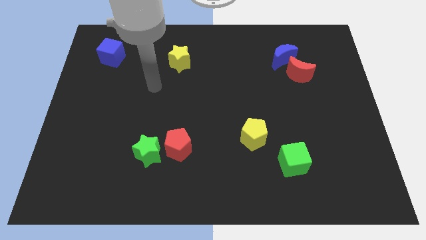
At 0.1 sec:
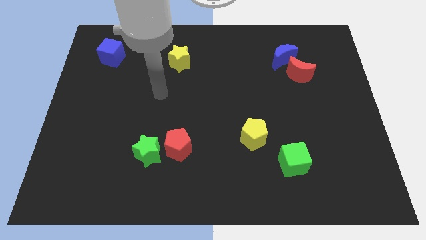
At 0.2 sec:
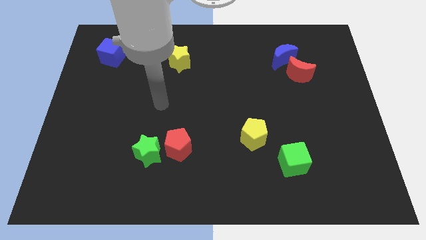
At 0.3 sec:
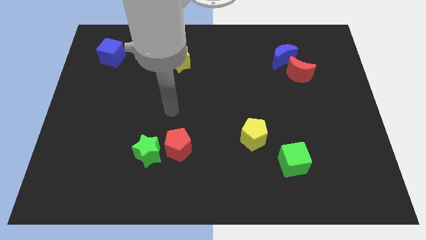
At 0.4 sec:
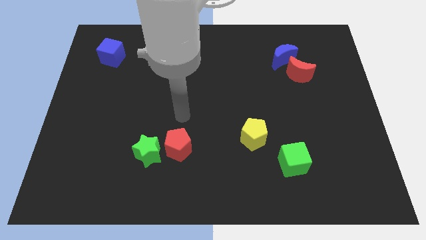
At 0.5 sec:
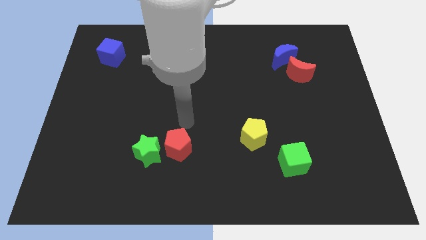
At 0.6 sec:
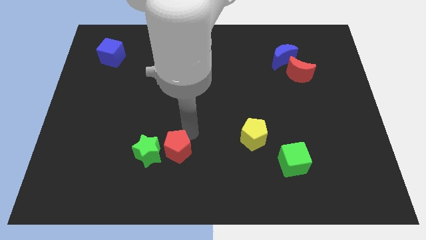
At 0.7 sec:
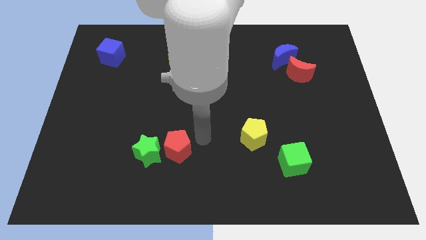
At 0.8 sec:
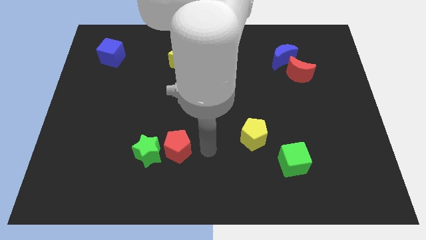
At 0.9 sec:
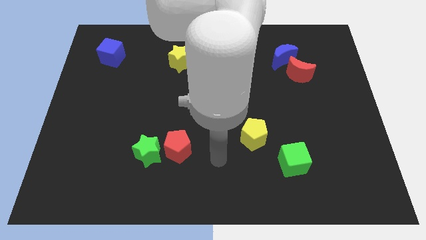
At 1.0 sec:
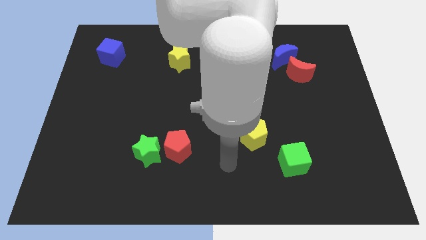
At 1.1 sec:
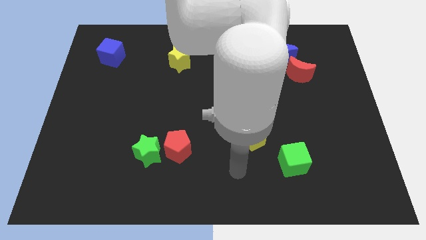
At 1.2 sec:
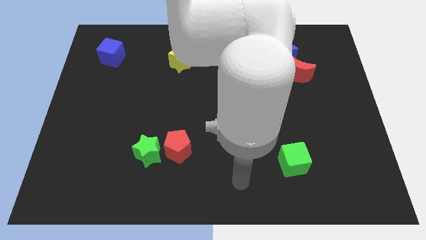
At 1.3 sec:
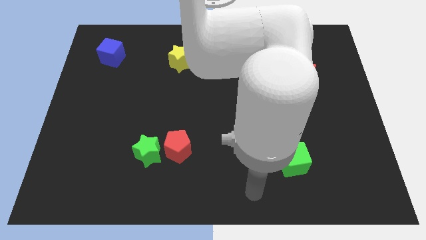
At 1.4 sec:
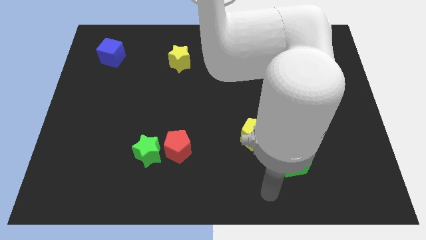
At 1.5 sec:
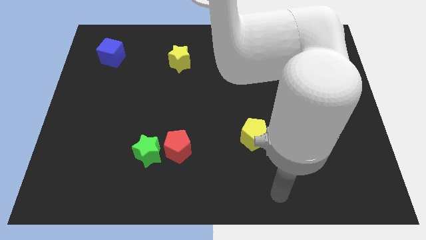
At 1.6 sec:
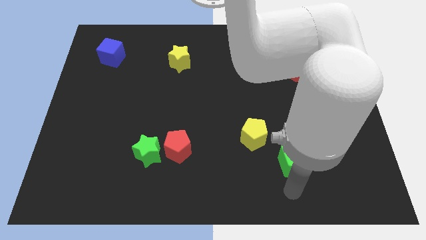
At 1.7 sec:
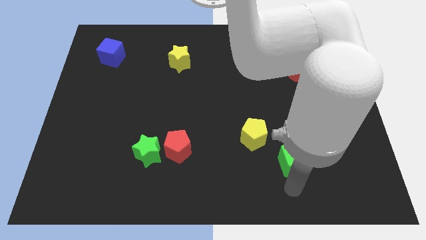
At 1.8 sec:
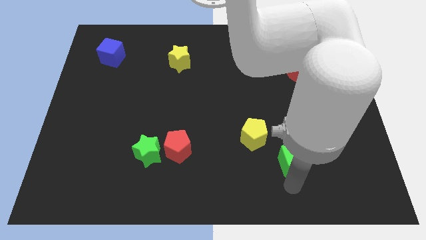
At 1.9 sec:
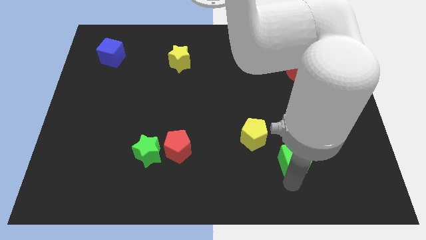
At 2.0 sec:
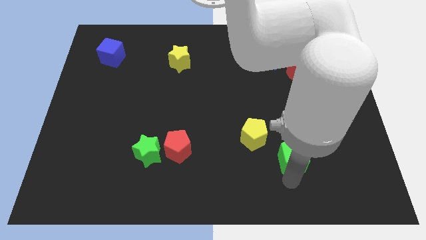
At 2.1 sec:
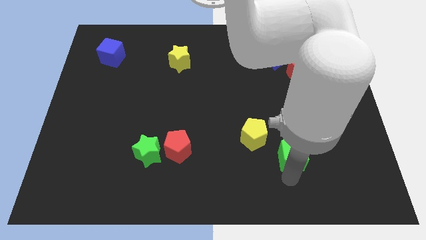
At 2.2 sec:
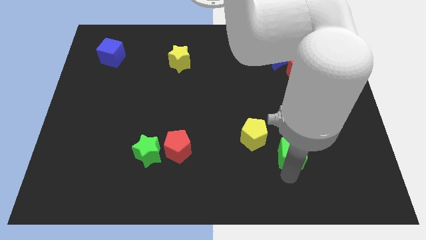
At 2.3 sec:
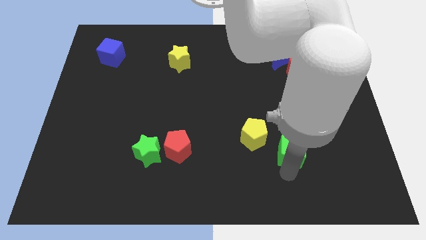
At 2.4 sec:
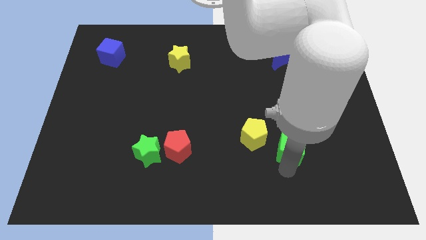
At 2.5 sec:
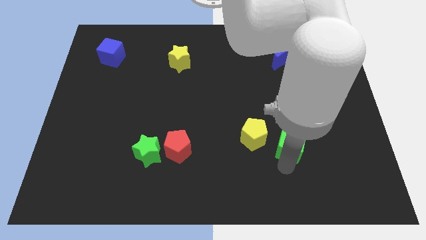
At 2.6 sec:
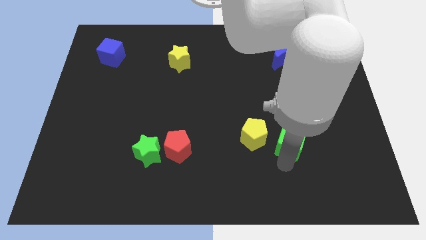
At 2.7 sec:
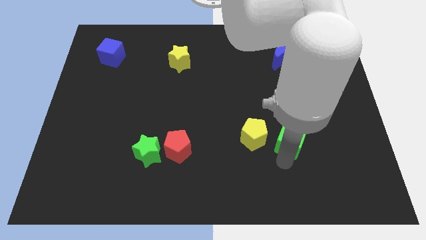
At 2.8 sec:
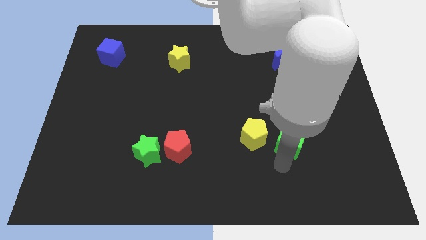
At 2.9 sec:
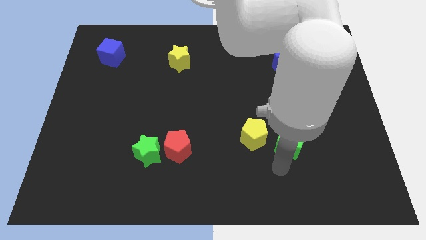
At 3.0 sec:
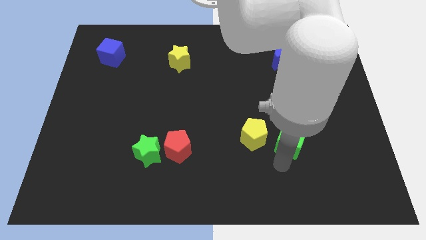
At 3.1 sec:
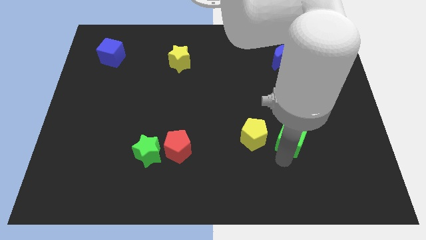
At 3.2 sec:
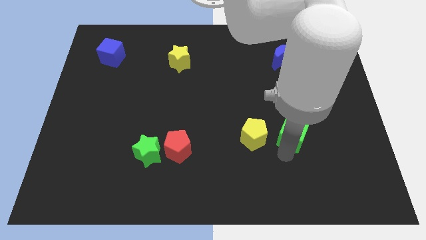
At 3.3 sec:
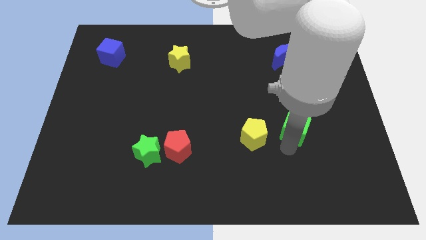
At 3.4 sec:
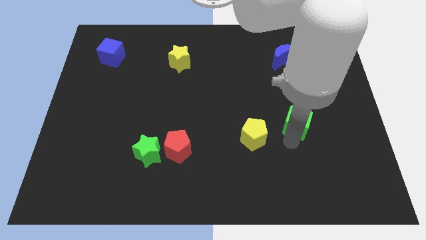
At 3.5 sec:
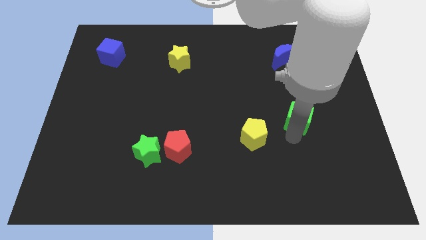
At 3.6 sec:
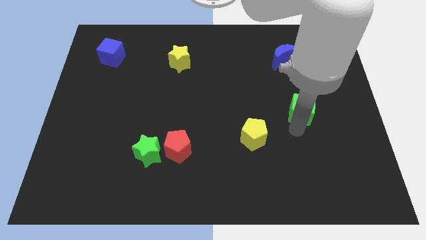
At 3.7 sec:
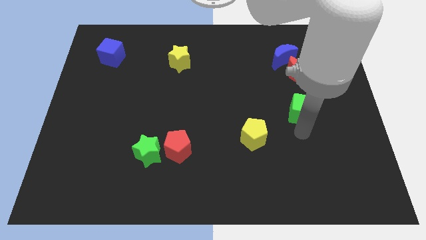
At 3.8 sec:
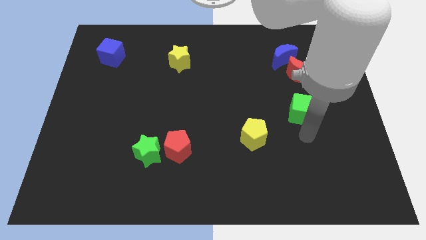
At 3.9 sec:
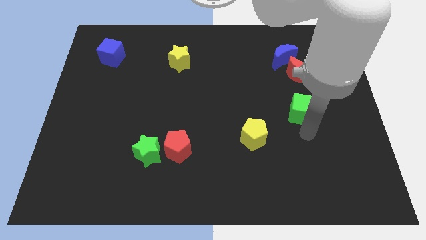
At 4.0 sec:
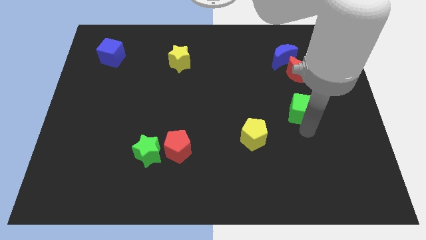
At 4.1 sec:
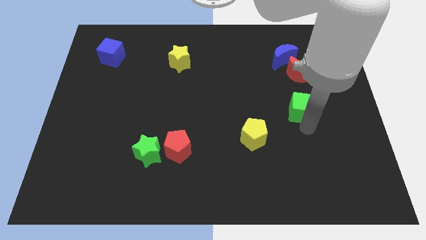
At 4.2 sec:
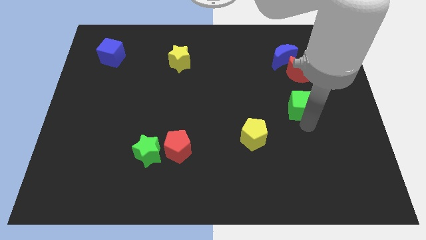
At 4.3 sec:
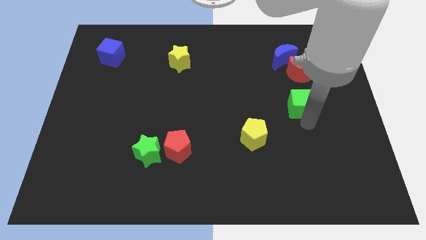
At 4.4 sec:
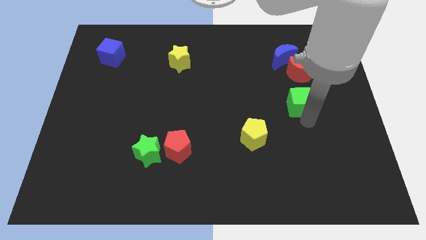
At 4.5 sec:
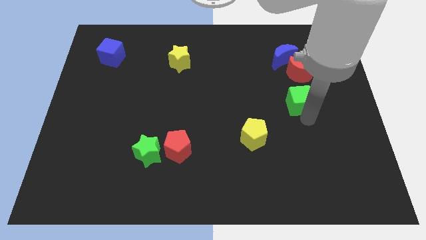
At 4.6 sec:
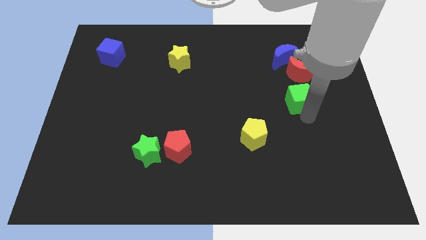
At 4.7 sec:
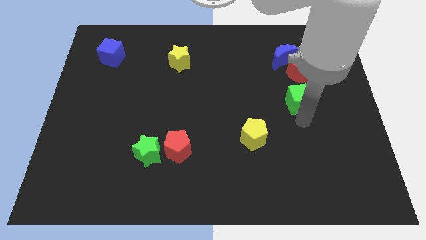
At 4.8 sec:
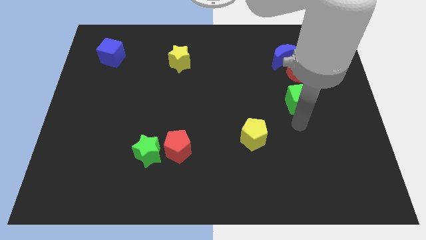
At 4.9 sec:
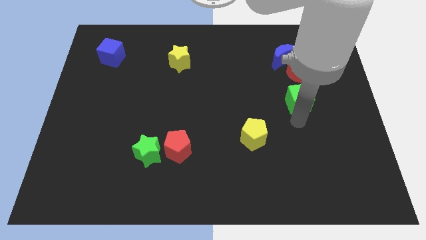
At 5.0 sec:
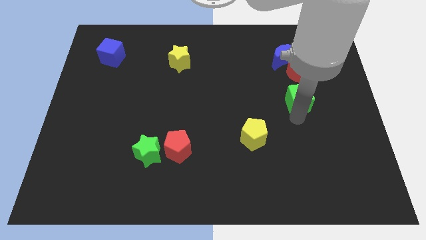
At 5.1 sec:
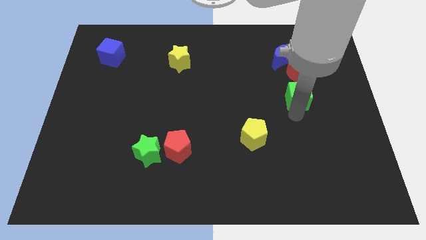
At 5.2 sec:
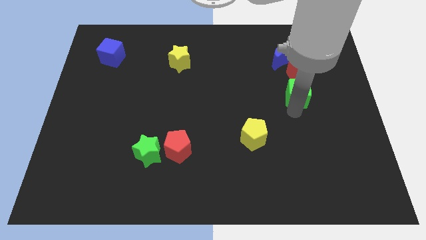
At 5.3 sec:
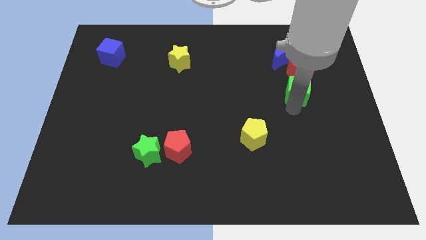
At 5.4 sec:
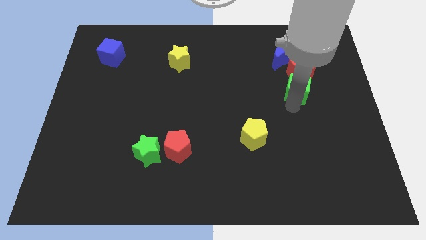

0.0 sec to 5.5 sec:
put the green cube to the red moon

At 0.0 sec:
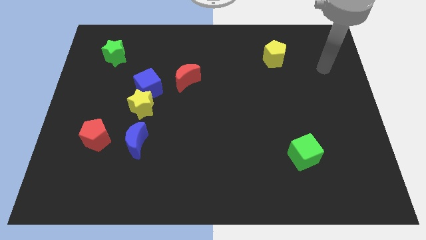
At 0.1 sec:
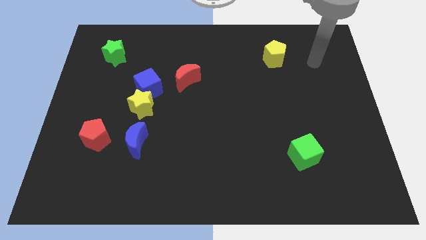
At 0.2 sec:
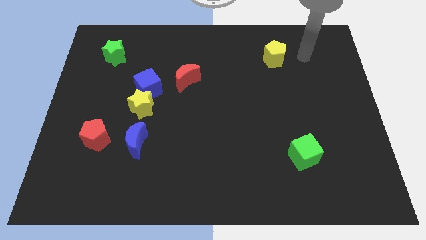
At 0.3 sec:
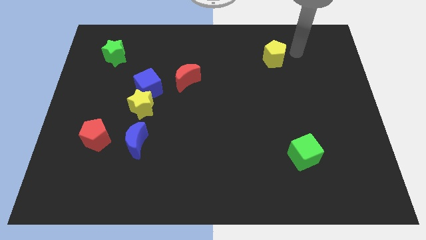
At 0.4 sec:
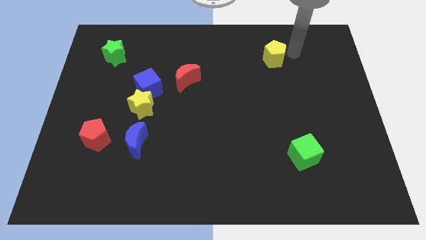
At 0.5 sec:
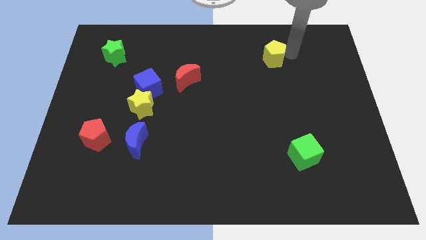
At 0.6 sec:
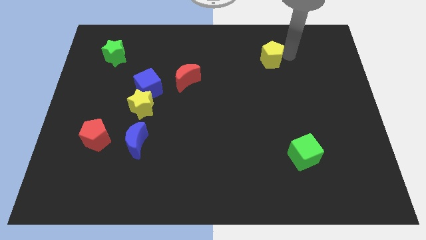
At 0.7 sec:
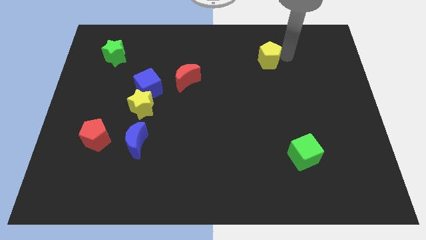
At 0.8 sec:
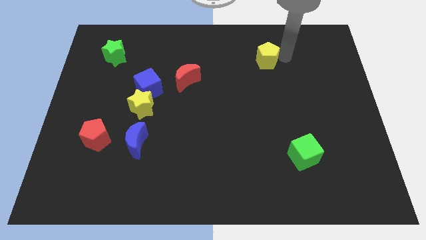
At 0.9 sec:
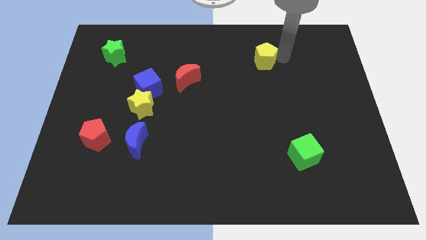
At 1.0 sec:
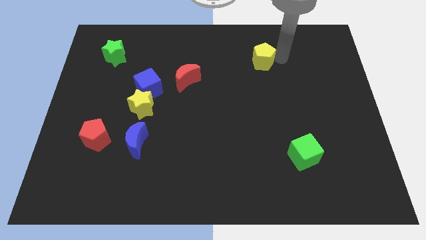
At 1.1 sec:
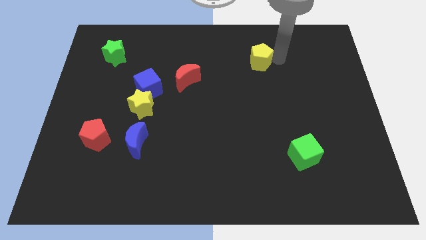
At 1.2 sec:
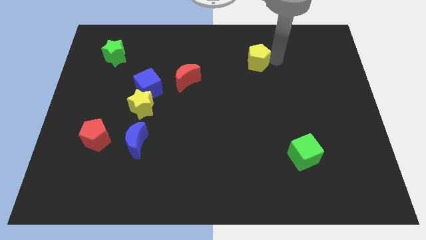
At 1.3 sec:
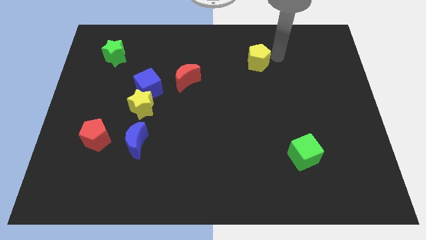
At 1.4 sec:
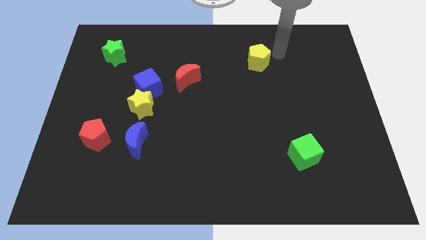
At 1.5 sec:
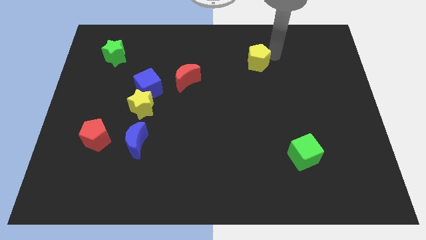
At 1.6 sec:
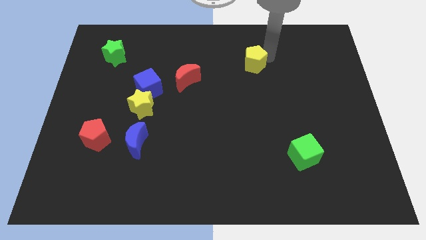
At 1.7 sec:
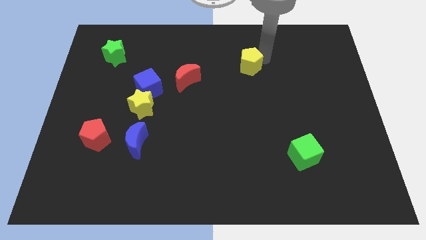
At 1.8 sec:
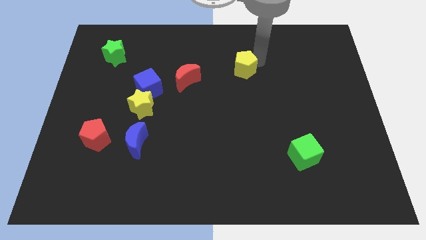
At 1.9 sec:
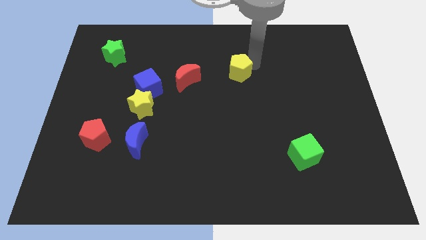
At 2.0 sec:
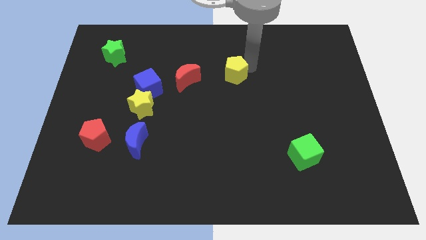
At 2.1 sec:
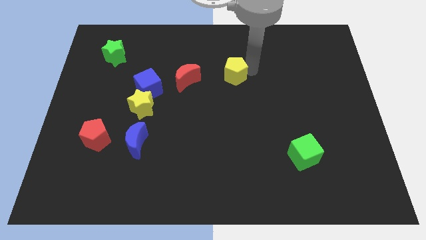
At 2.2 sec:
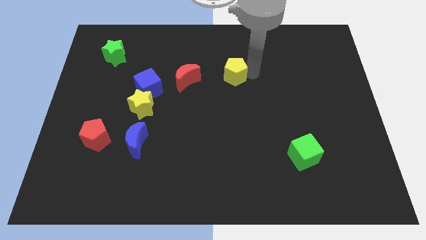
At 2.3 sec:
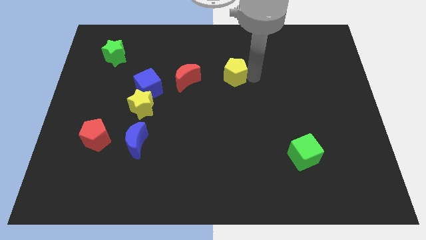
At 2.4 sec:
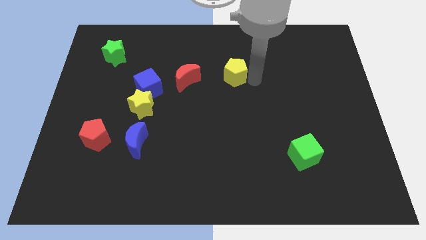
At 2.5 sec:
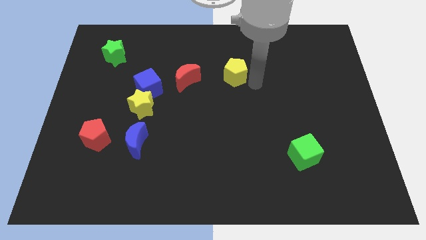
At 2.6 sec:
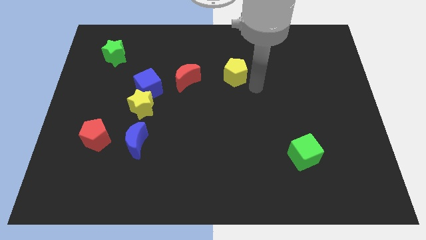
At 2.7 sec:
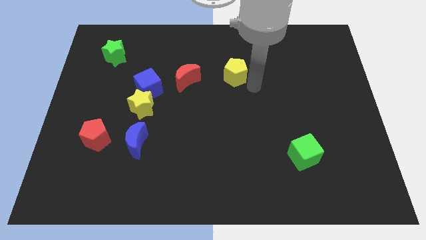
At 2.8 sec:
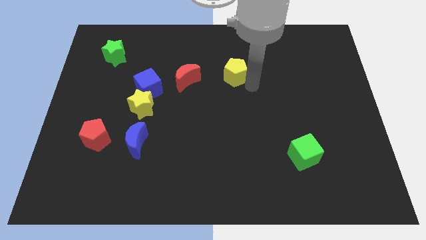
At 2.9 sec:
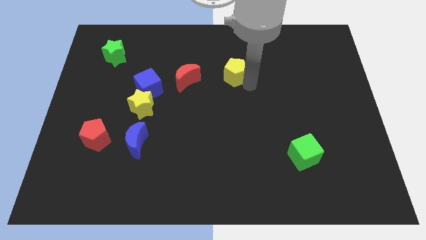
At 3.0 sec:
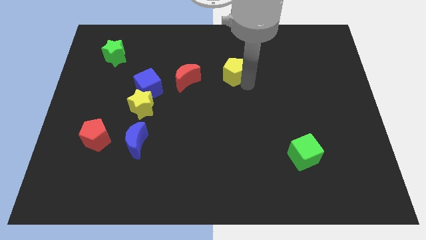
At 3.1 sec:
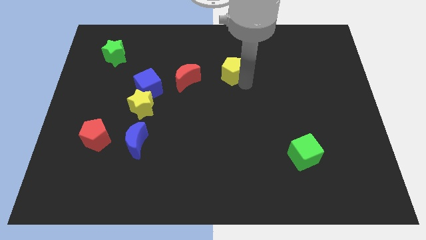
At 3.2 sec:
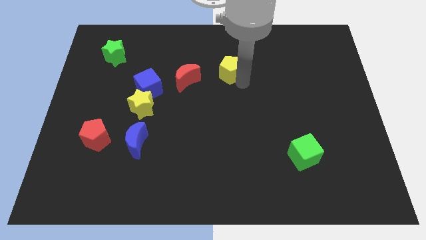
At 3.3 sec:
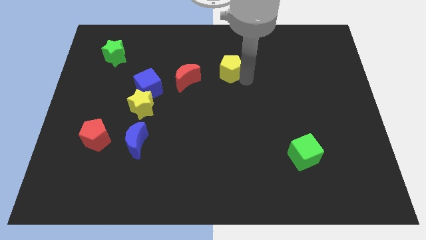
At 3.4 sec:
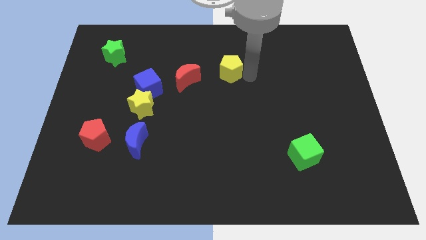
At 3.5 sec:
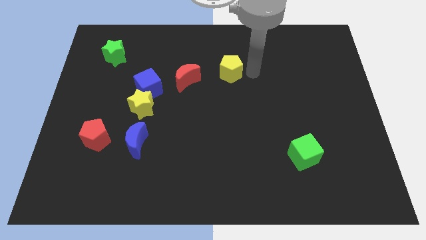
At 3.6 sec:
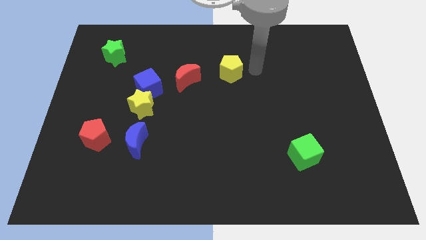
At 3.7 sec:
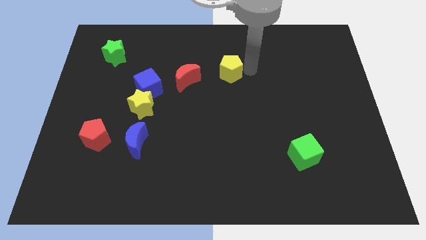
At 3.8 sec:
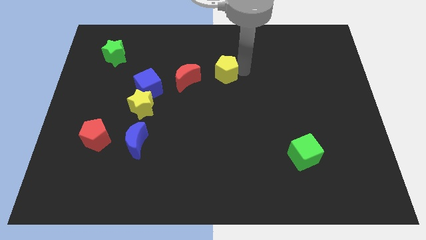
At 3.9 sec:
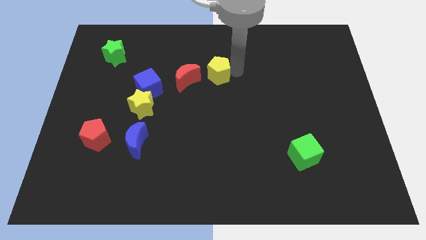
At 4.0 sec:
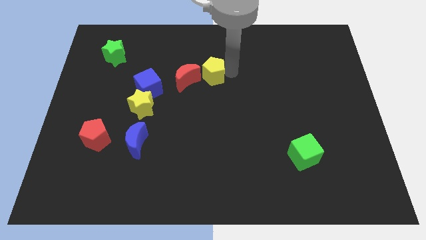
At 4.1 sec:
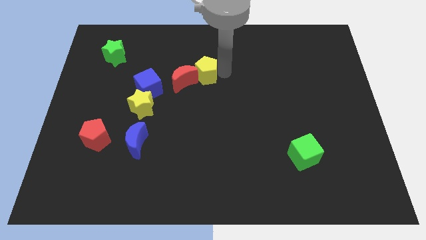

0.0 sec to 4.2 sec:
put the yellow pentagon towards the red moon
